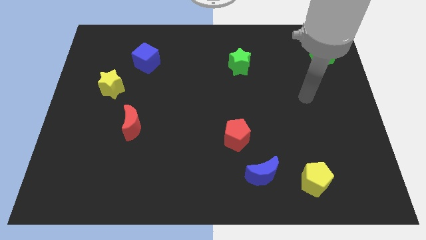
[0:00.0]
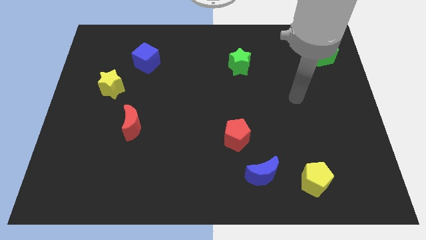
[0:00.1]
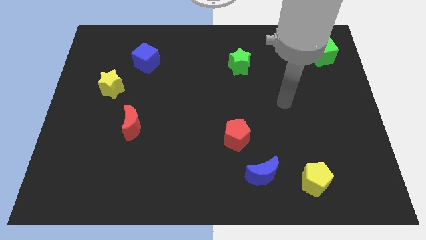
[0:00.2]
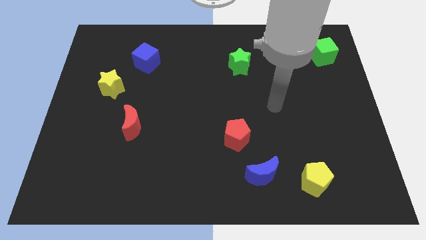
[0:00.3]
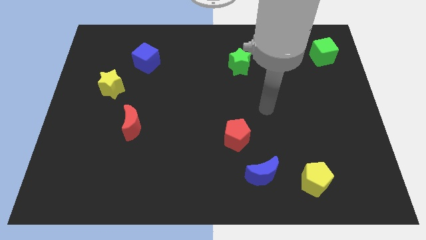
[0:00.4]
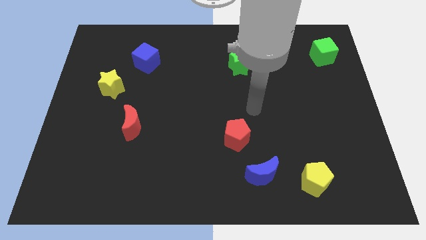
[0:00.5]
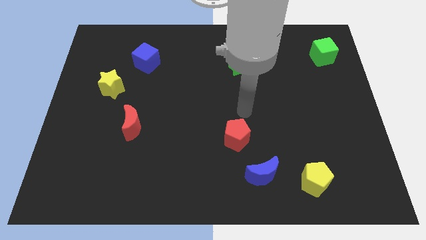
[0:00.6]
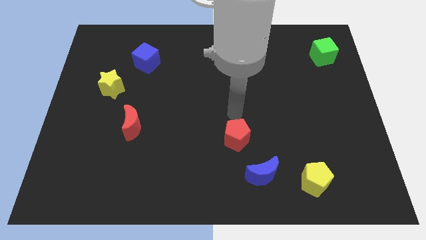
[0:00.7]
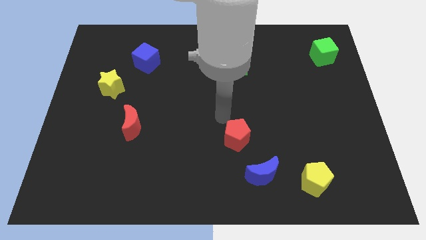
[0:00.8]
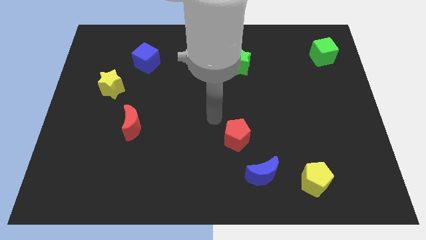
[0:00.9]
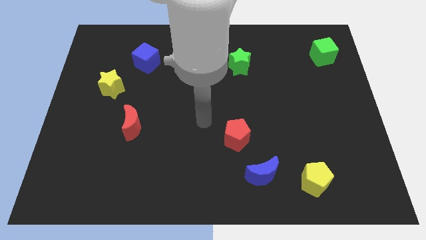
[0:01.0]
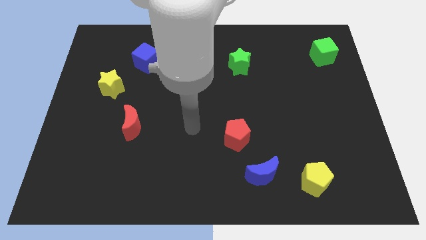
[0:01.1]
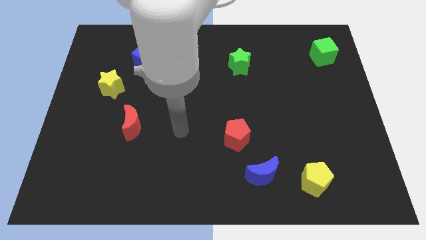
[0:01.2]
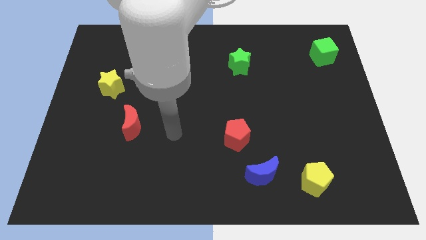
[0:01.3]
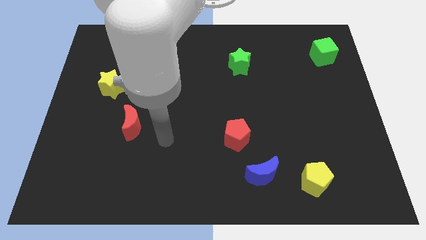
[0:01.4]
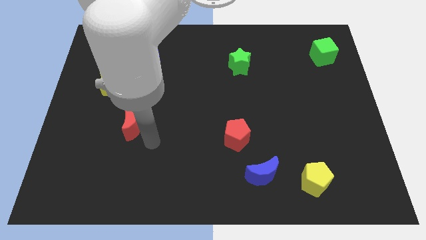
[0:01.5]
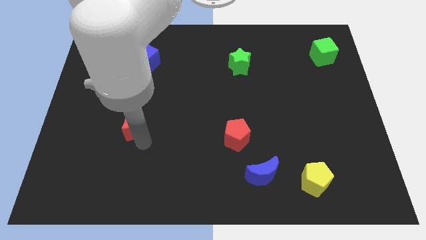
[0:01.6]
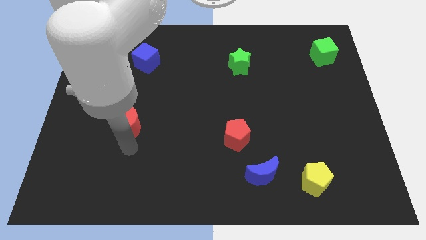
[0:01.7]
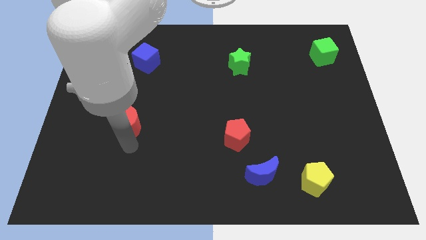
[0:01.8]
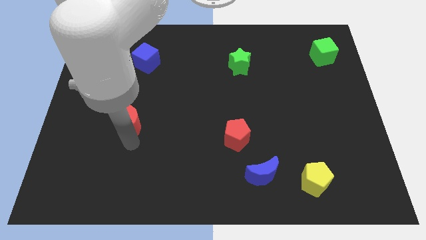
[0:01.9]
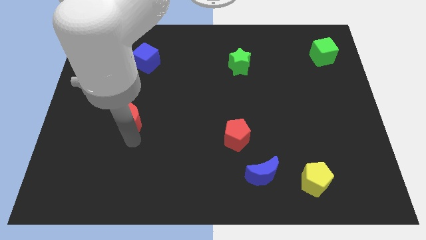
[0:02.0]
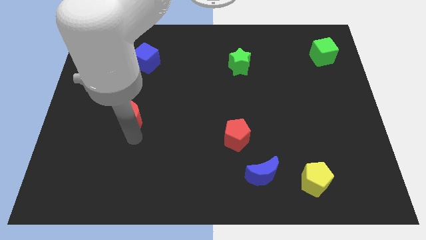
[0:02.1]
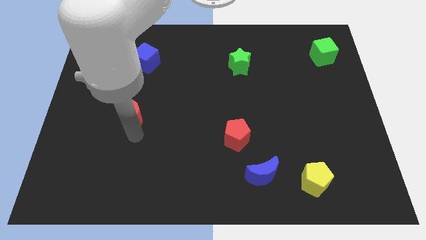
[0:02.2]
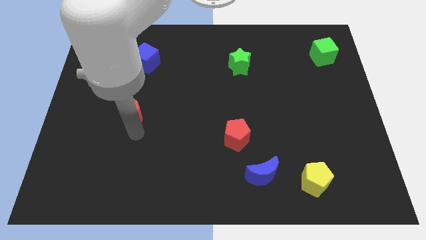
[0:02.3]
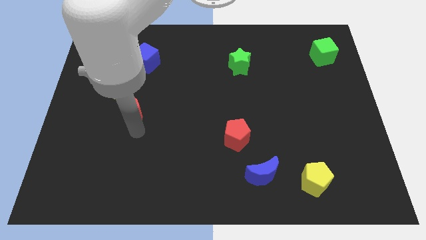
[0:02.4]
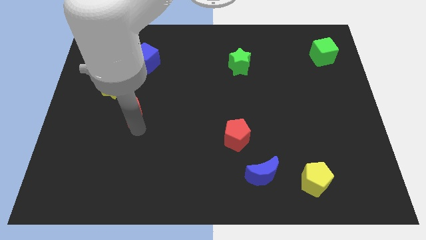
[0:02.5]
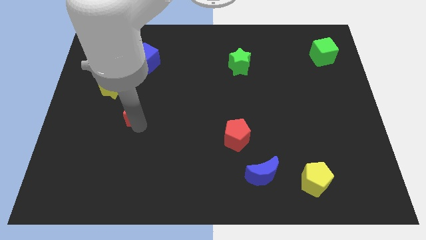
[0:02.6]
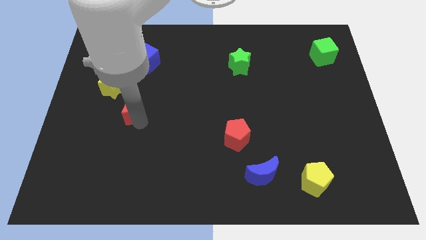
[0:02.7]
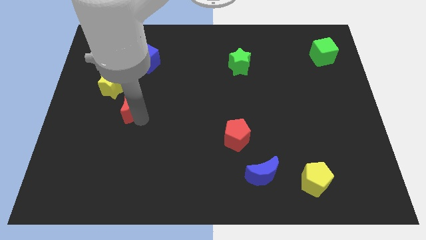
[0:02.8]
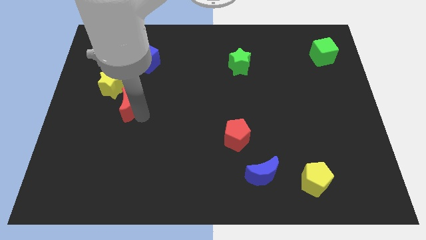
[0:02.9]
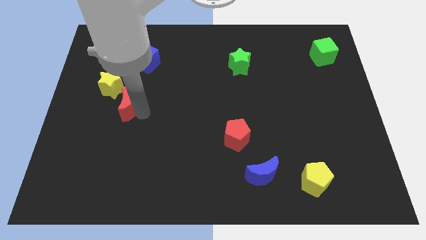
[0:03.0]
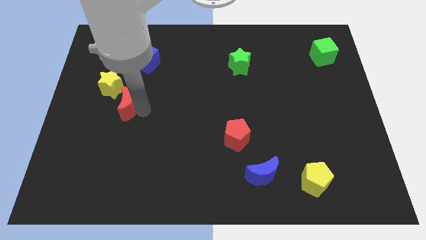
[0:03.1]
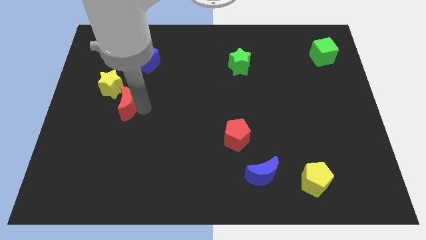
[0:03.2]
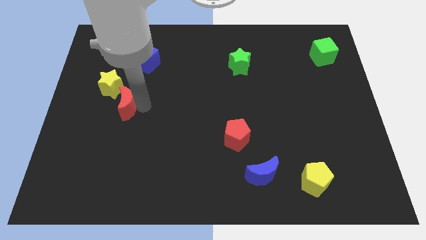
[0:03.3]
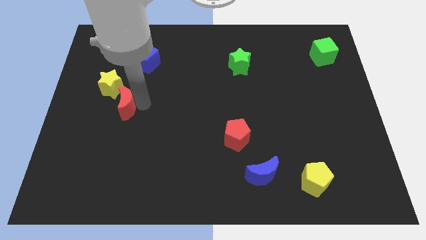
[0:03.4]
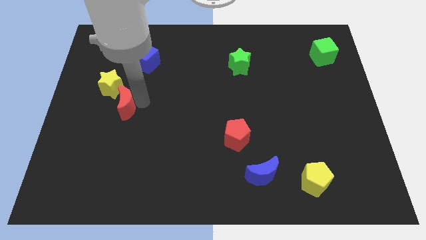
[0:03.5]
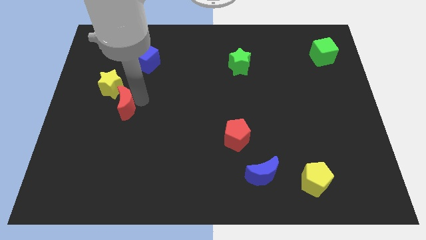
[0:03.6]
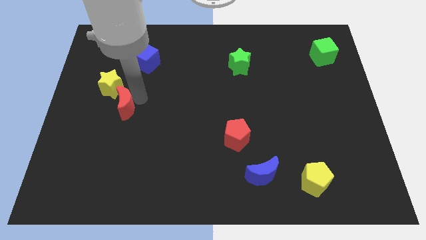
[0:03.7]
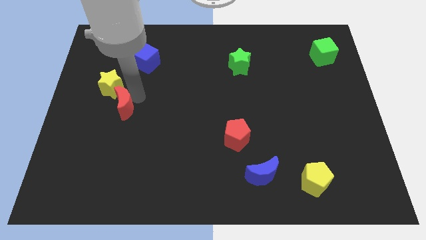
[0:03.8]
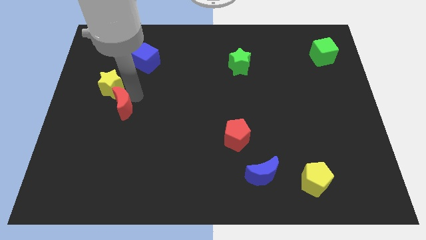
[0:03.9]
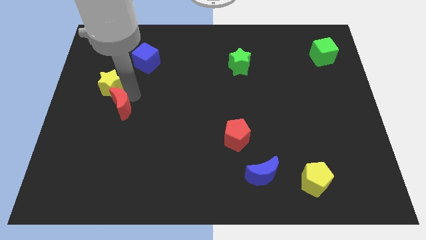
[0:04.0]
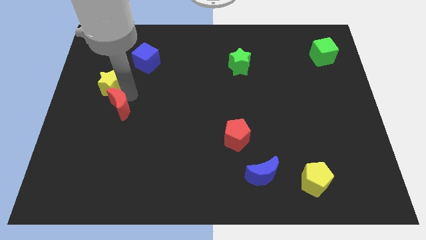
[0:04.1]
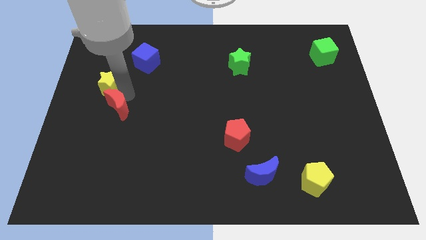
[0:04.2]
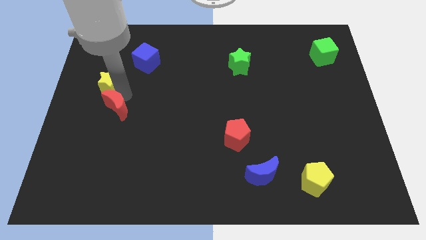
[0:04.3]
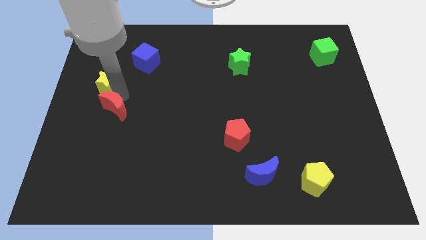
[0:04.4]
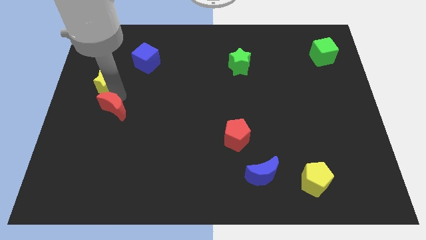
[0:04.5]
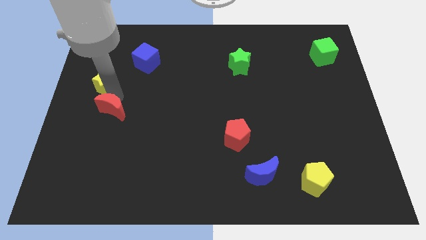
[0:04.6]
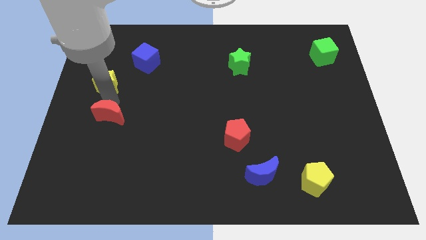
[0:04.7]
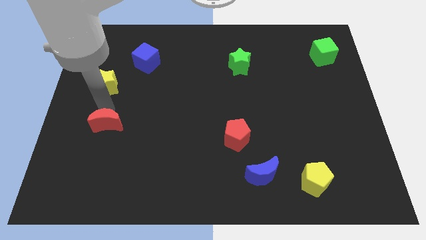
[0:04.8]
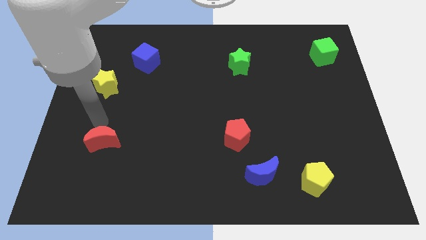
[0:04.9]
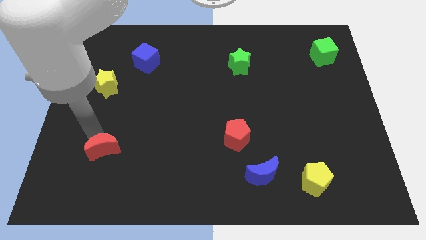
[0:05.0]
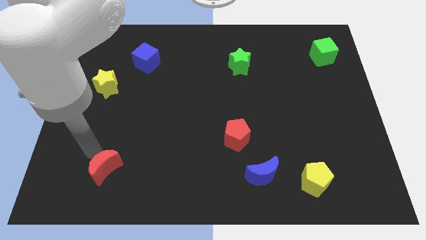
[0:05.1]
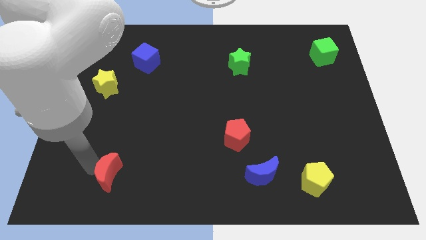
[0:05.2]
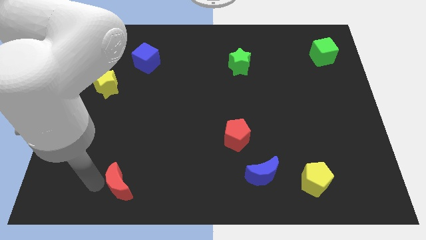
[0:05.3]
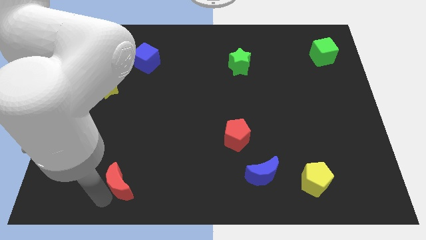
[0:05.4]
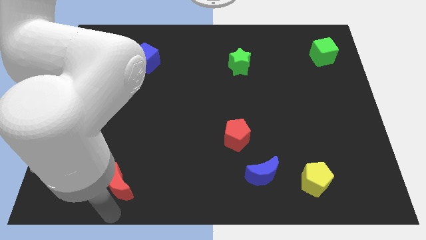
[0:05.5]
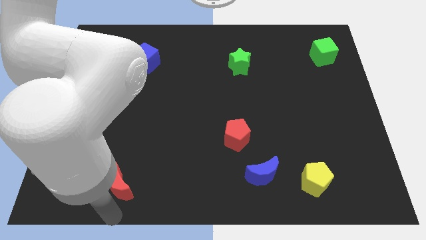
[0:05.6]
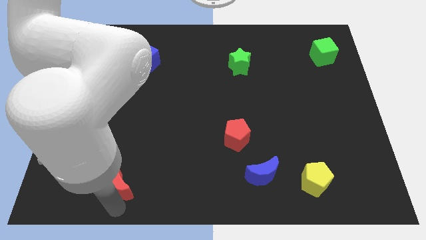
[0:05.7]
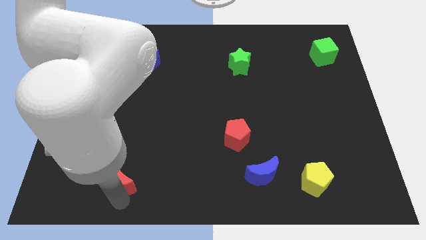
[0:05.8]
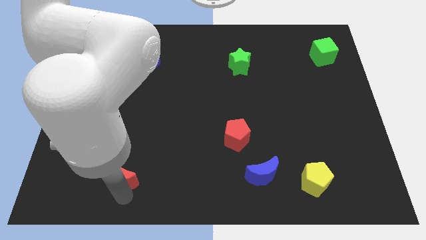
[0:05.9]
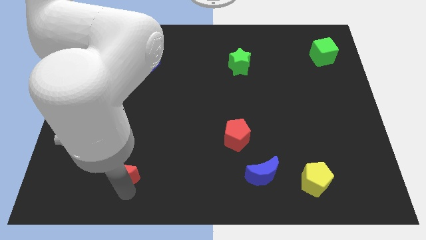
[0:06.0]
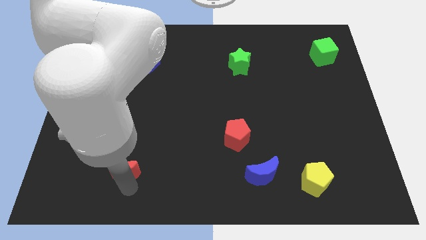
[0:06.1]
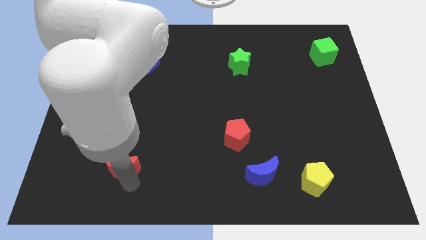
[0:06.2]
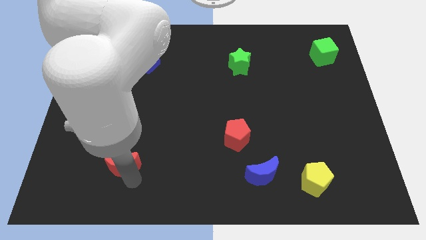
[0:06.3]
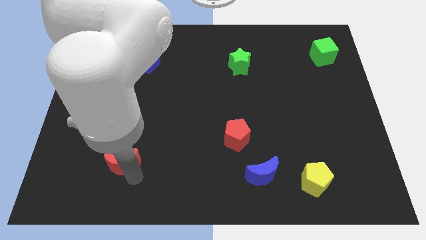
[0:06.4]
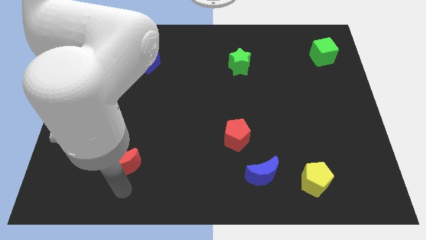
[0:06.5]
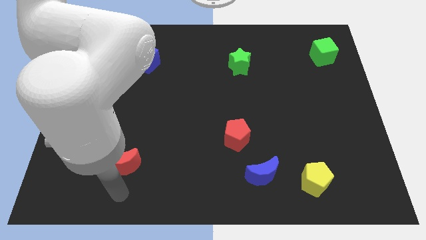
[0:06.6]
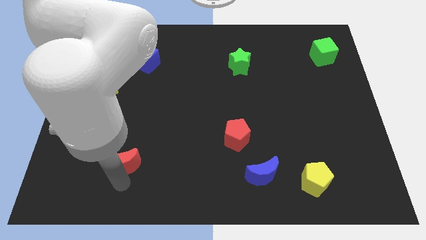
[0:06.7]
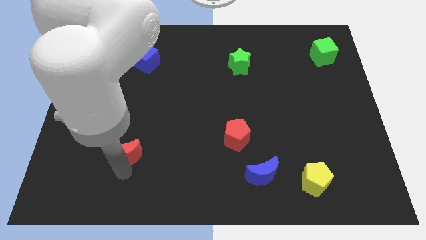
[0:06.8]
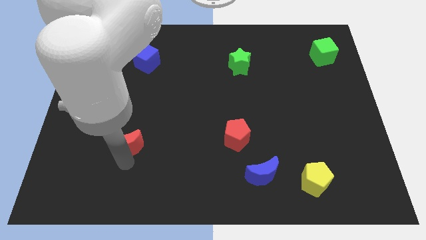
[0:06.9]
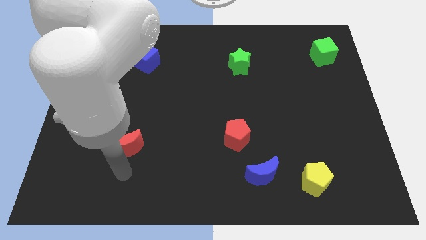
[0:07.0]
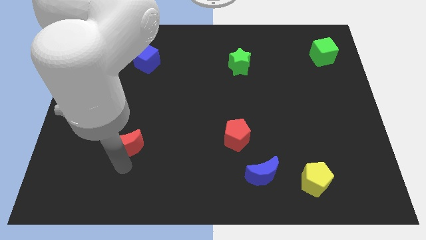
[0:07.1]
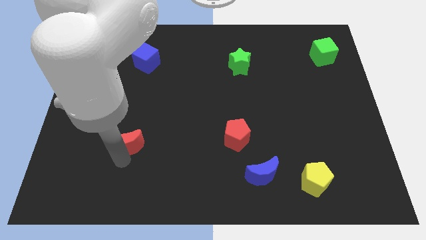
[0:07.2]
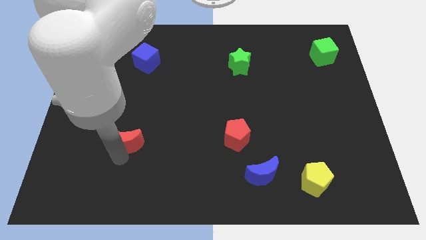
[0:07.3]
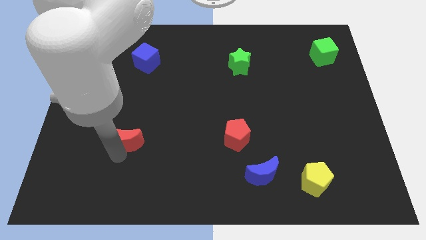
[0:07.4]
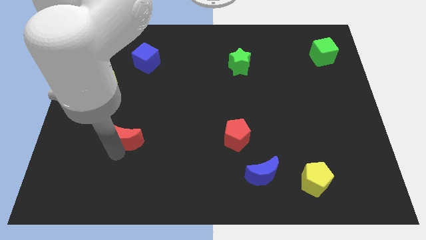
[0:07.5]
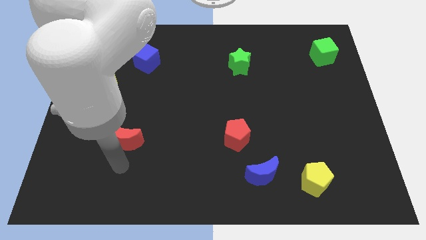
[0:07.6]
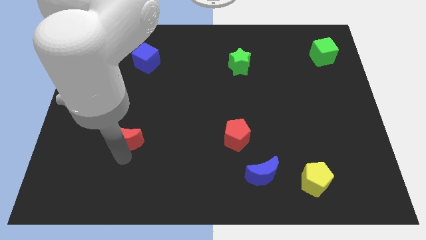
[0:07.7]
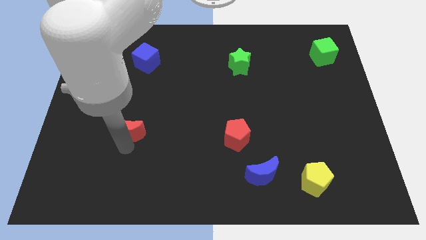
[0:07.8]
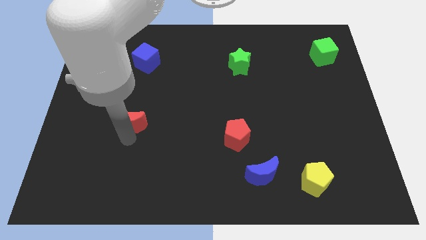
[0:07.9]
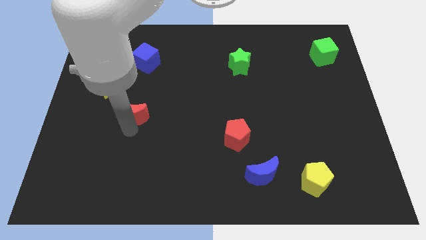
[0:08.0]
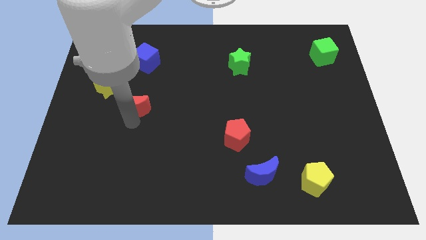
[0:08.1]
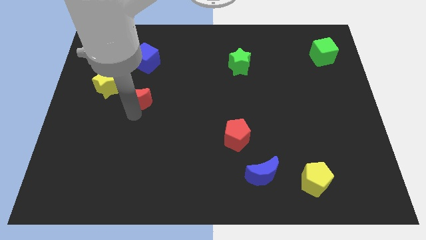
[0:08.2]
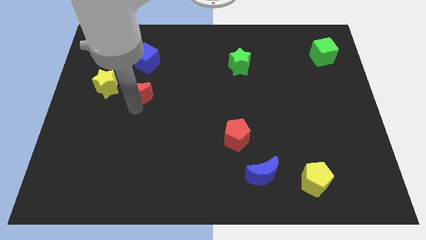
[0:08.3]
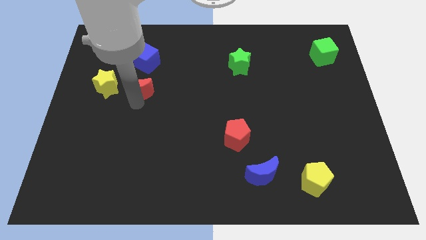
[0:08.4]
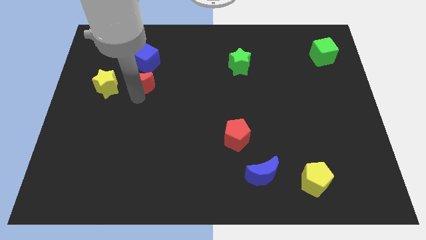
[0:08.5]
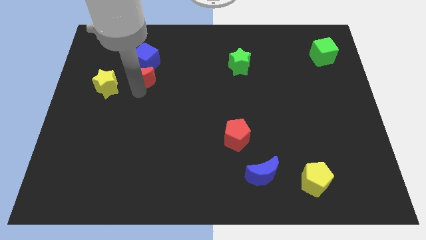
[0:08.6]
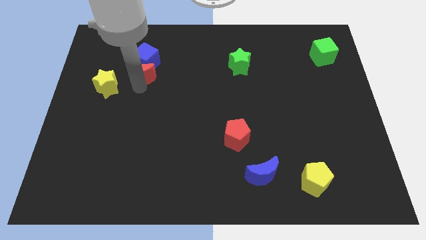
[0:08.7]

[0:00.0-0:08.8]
put the red moon to the blue cube
